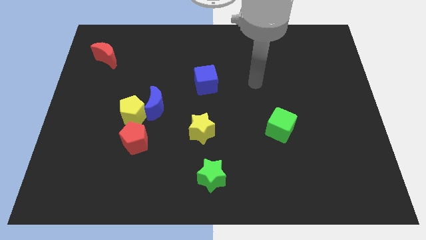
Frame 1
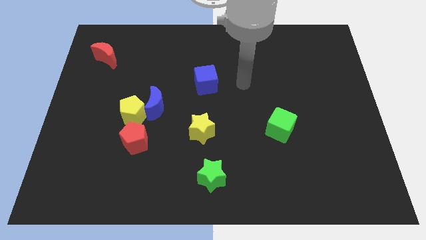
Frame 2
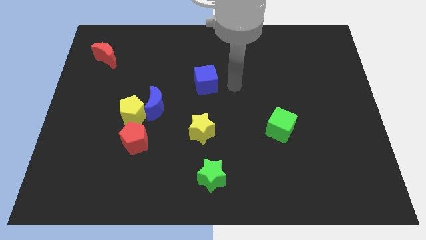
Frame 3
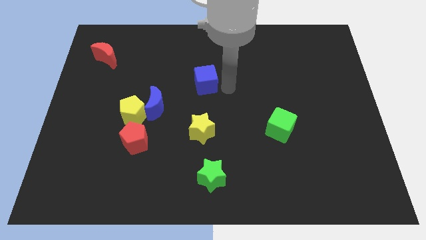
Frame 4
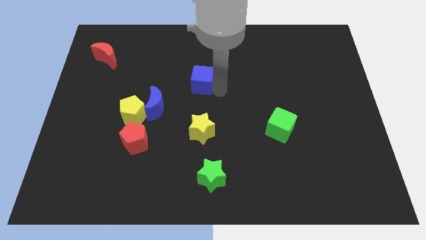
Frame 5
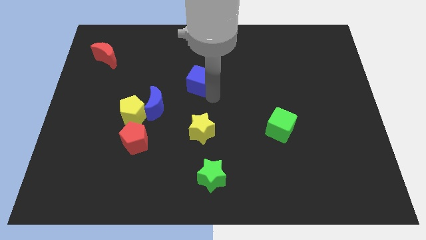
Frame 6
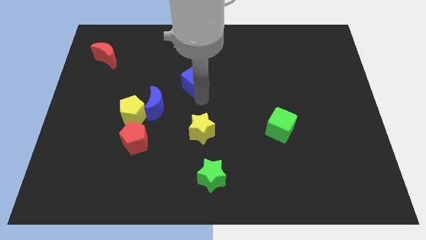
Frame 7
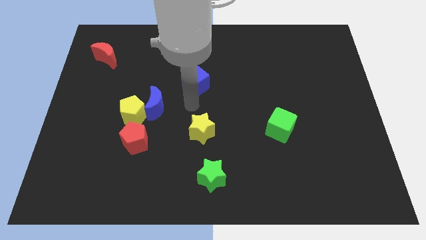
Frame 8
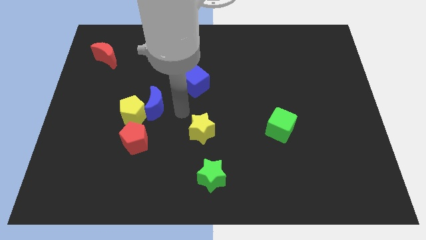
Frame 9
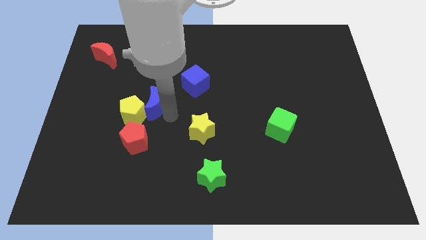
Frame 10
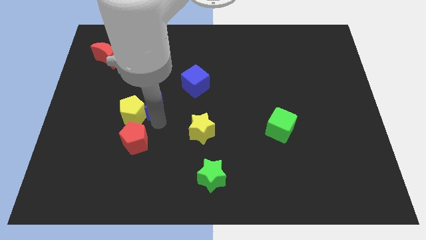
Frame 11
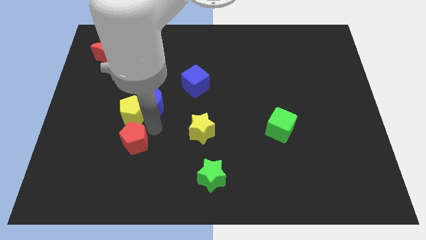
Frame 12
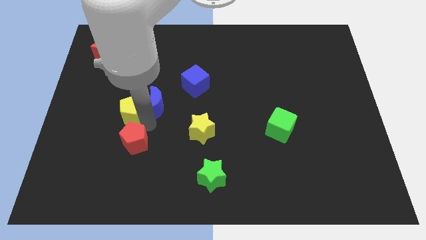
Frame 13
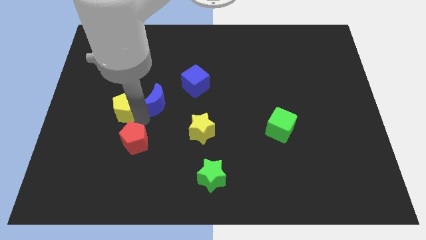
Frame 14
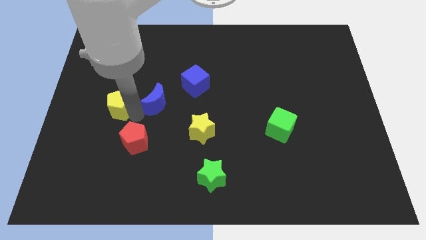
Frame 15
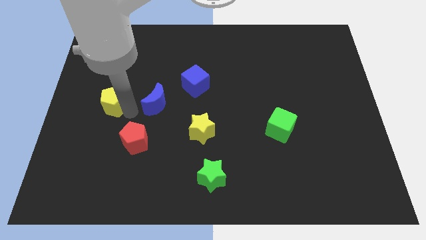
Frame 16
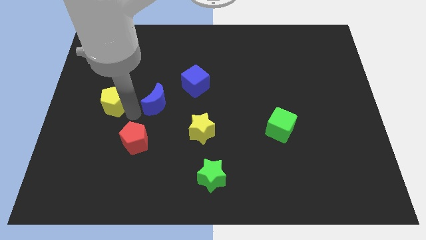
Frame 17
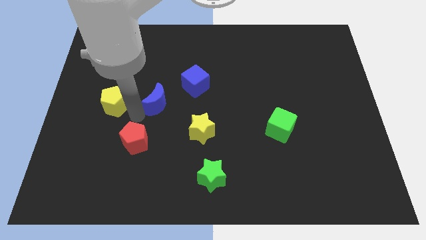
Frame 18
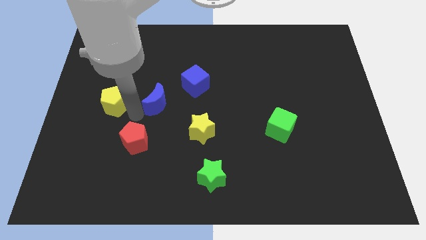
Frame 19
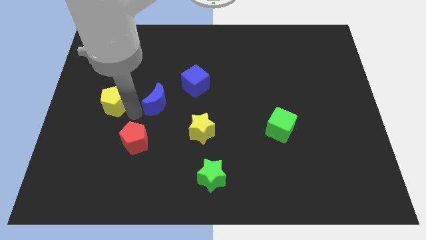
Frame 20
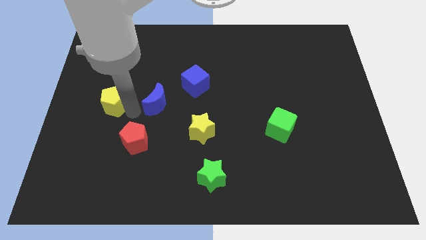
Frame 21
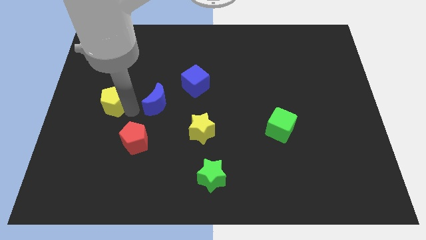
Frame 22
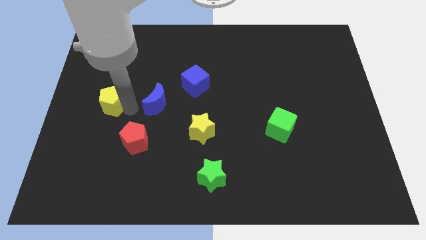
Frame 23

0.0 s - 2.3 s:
pull the yellow pentagon apart from the blue moon and red pentagon

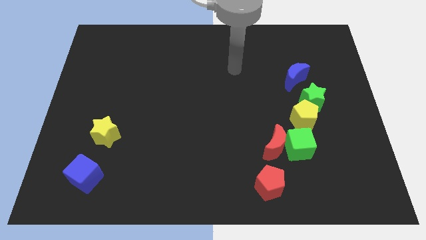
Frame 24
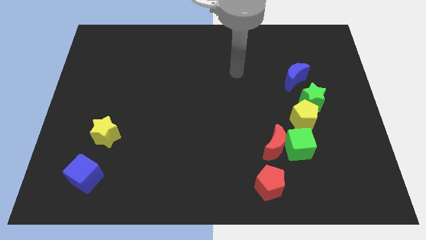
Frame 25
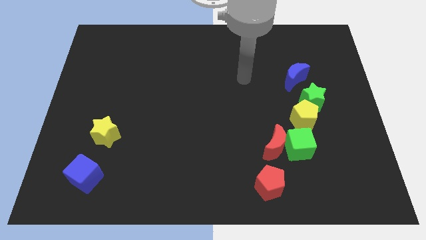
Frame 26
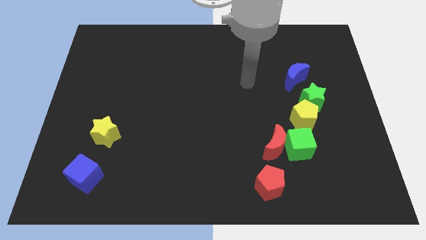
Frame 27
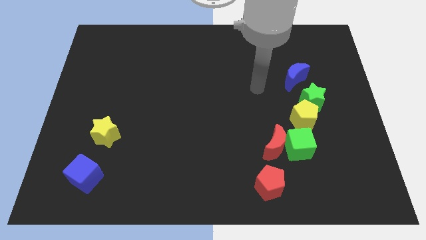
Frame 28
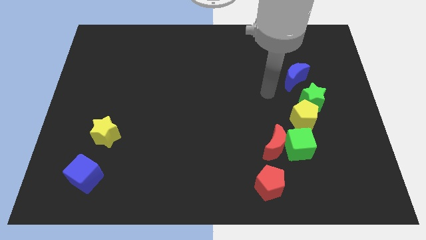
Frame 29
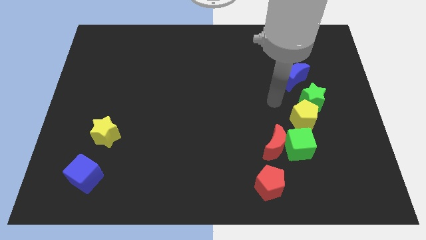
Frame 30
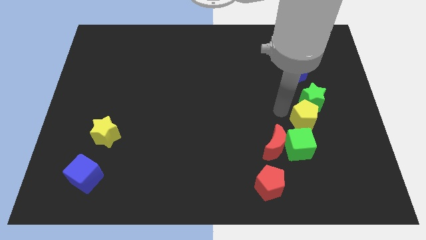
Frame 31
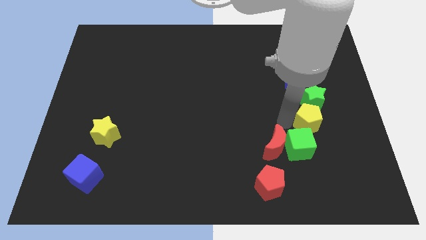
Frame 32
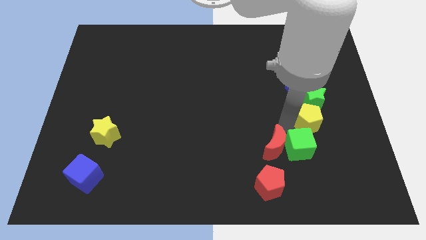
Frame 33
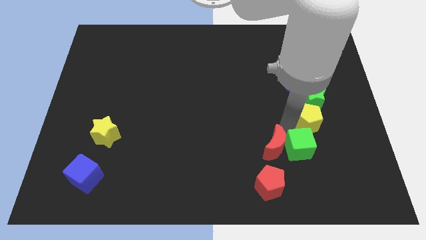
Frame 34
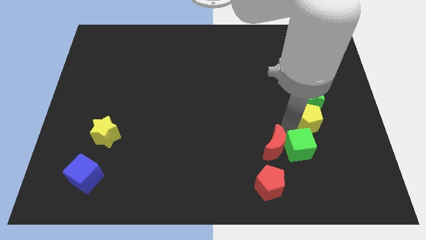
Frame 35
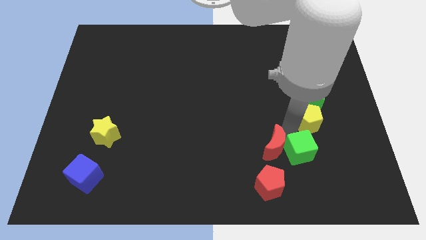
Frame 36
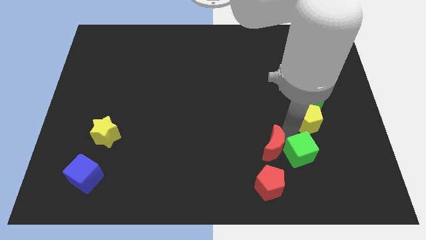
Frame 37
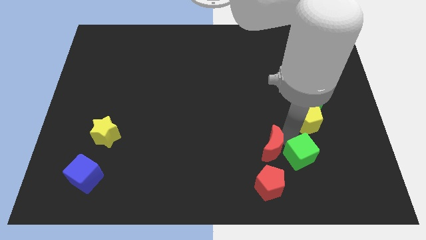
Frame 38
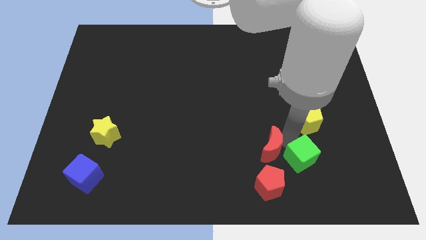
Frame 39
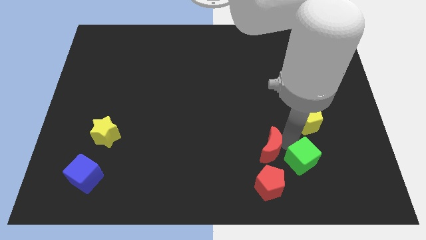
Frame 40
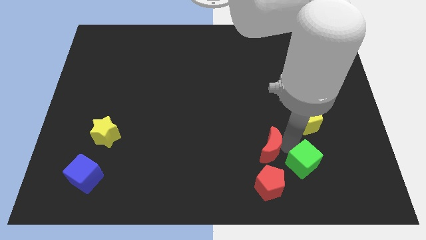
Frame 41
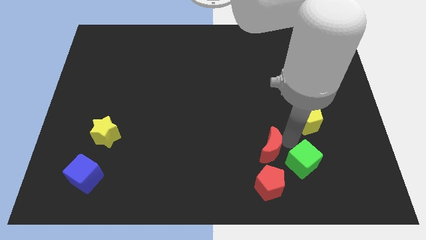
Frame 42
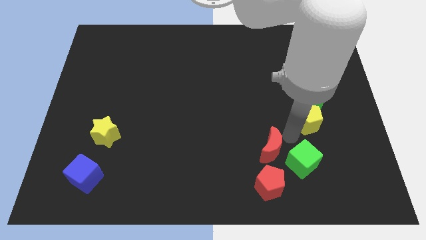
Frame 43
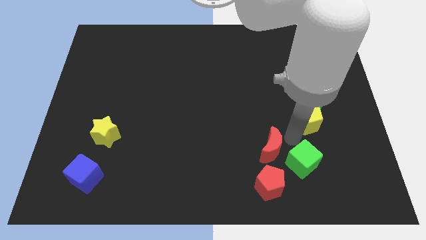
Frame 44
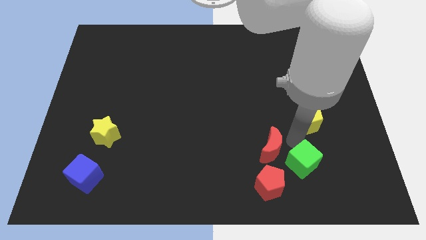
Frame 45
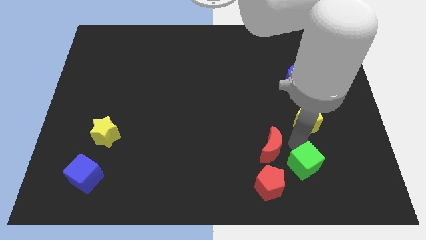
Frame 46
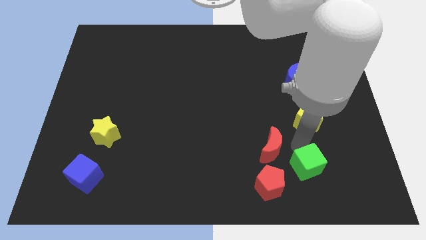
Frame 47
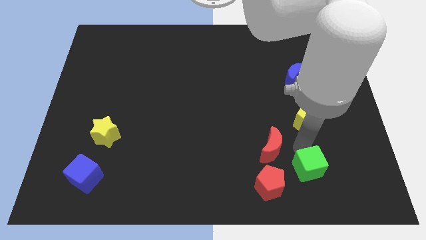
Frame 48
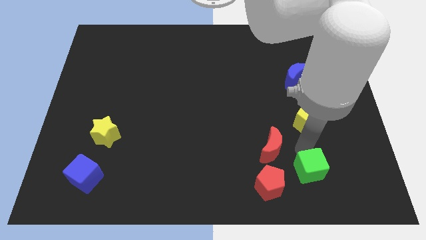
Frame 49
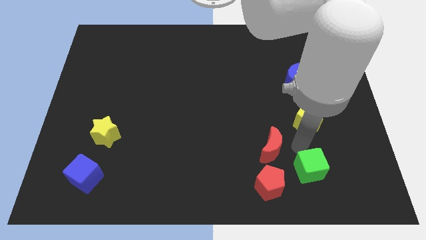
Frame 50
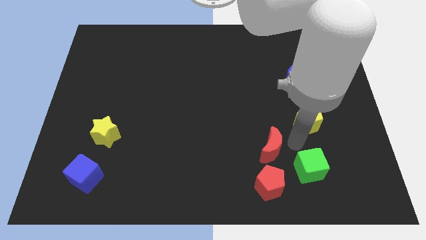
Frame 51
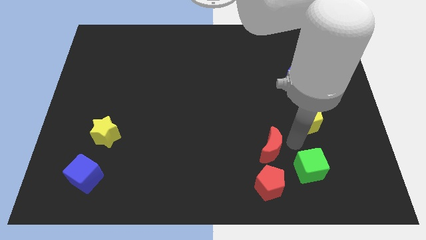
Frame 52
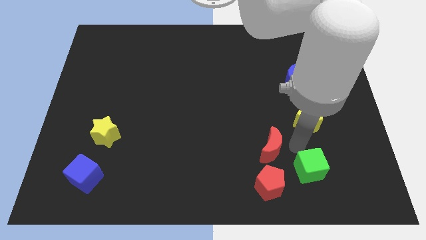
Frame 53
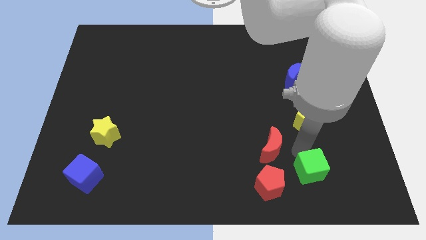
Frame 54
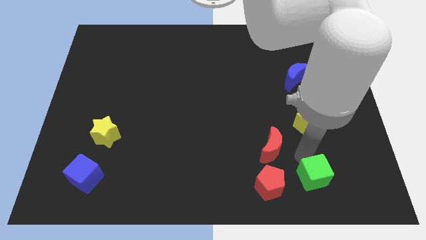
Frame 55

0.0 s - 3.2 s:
separate the green cube from the red moon and yellow pentagon

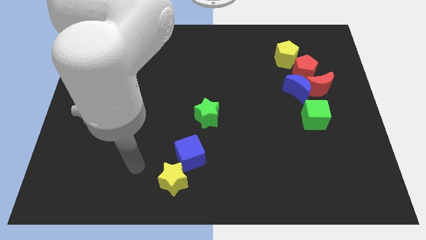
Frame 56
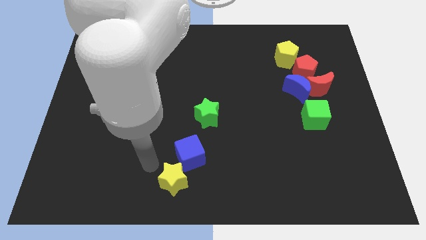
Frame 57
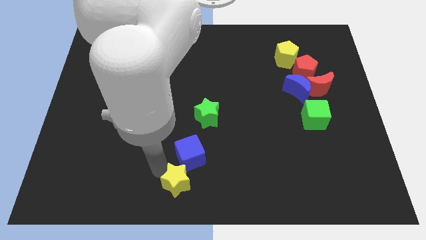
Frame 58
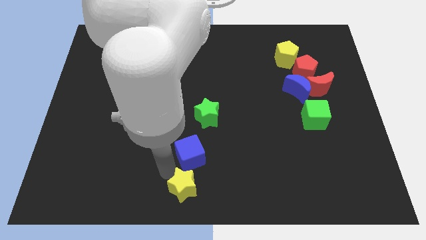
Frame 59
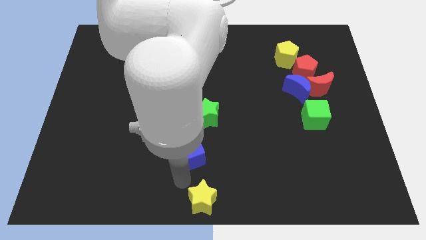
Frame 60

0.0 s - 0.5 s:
move the blue cube away from the yellow star

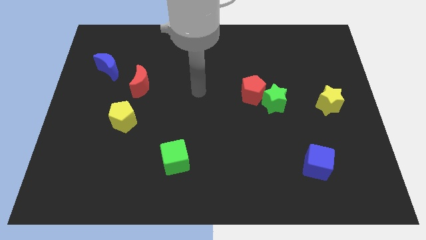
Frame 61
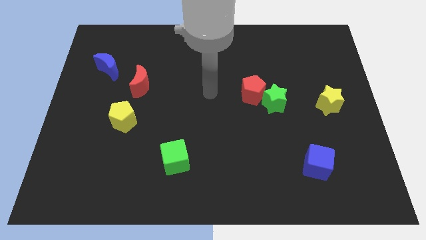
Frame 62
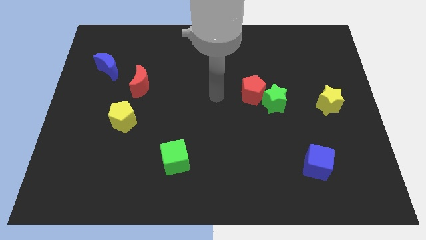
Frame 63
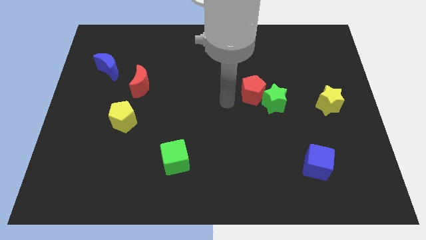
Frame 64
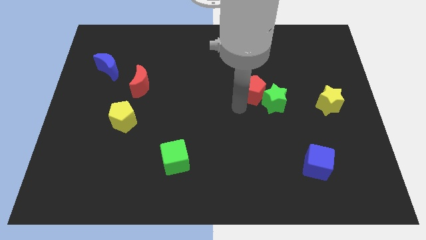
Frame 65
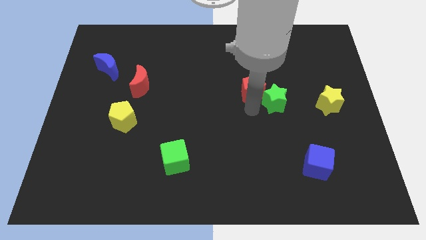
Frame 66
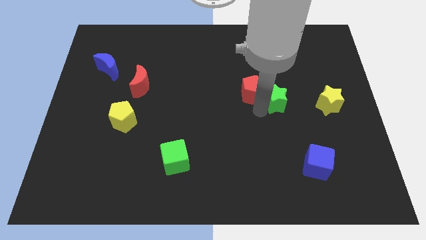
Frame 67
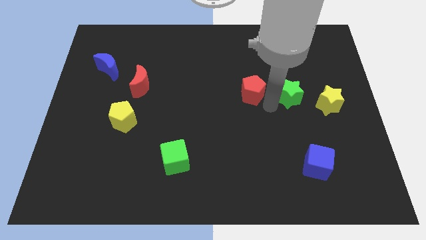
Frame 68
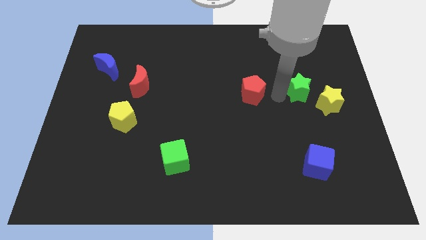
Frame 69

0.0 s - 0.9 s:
separate the red pentagon from the green star

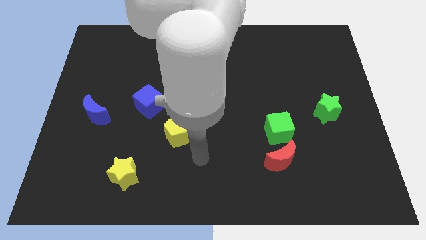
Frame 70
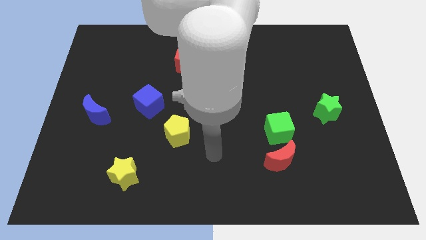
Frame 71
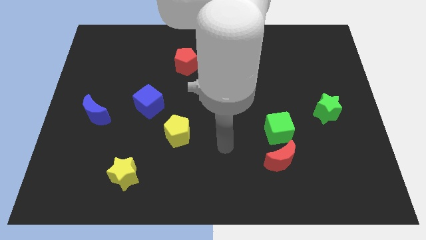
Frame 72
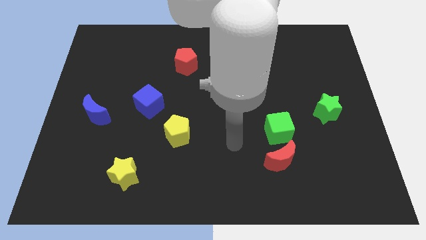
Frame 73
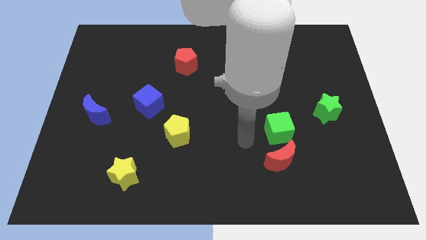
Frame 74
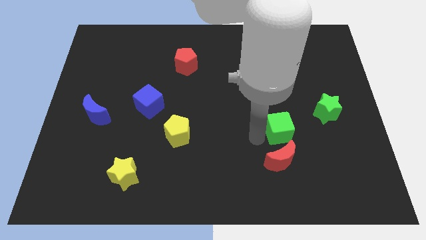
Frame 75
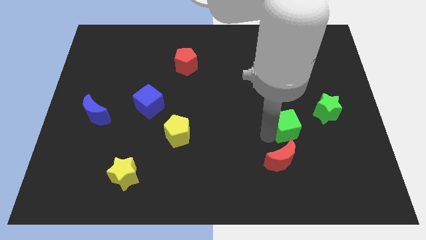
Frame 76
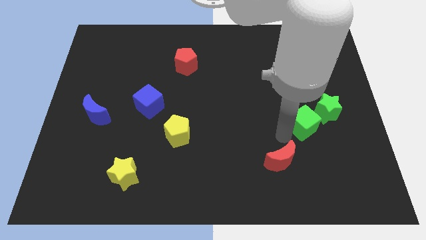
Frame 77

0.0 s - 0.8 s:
pull the red moon apart from the green cube

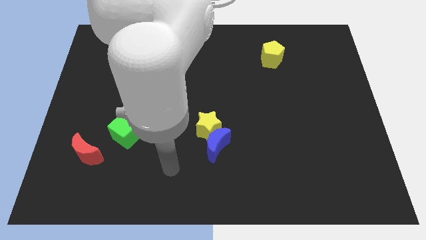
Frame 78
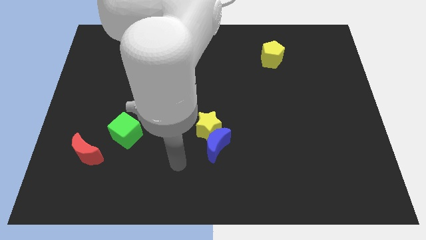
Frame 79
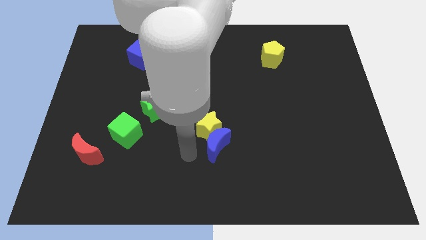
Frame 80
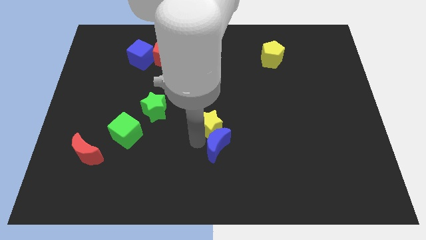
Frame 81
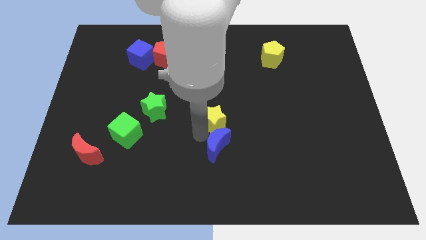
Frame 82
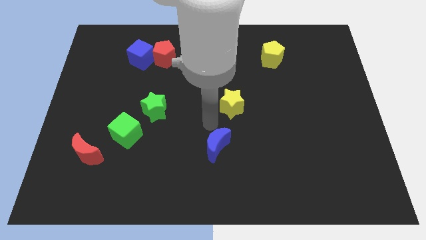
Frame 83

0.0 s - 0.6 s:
pull the blue moon apart from the yellow star

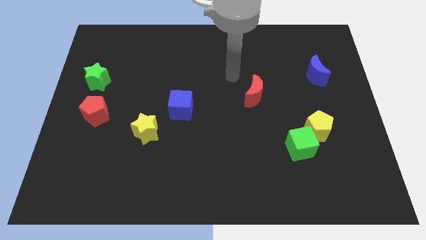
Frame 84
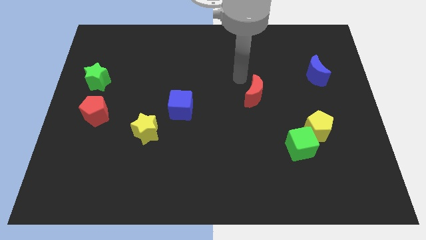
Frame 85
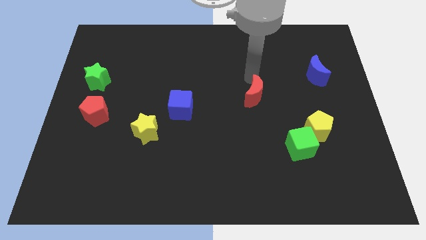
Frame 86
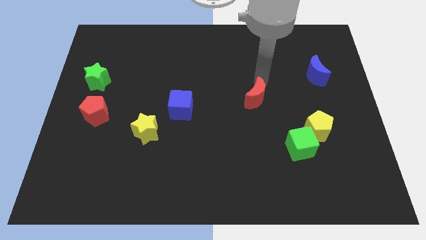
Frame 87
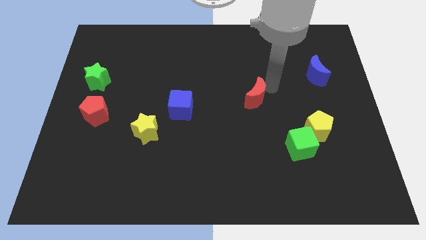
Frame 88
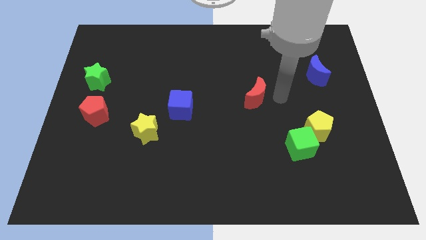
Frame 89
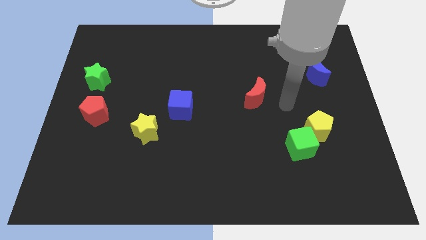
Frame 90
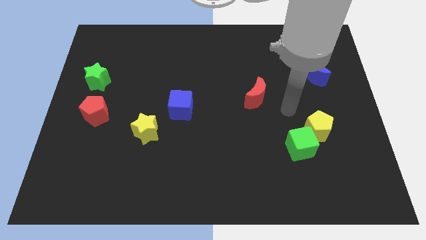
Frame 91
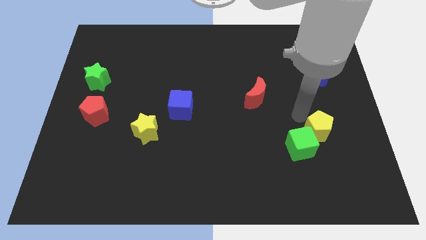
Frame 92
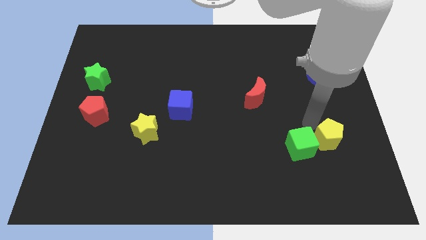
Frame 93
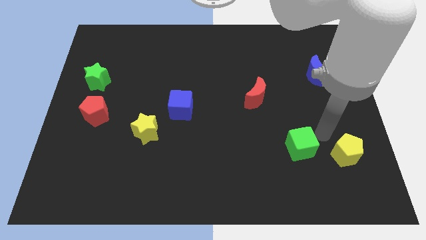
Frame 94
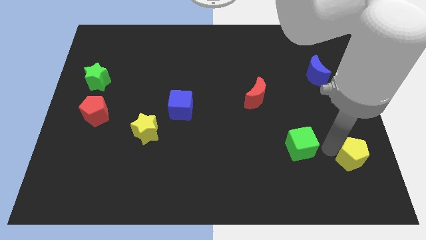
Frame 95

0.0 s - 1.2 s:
move the green cube away from the yellow pentagon
